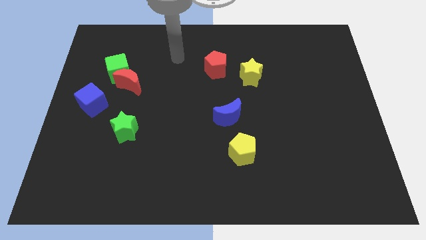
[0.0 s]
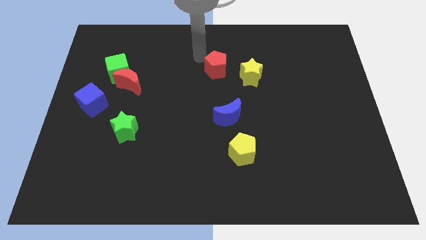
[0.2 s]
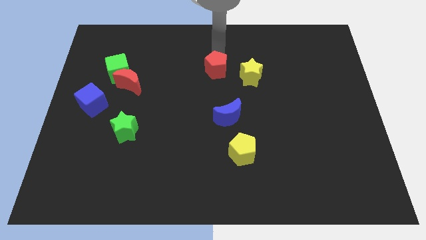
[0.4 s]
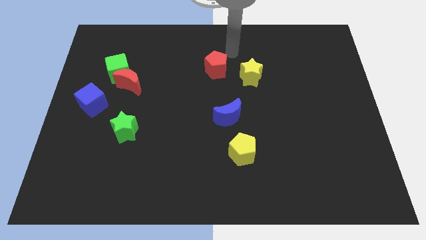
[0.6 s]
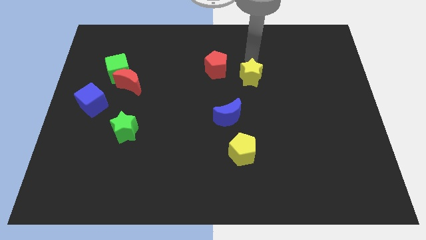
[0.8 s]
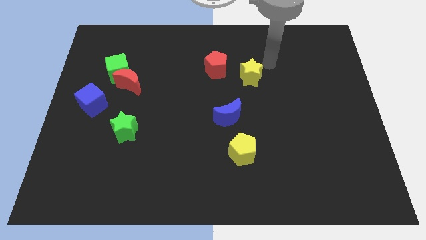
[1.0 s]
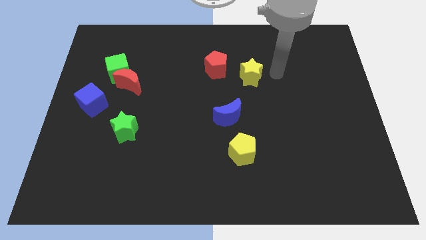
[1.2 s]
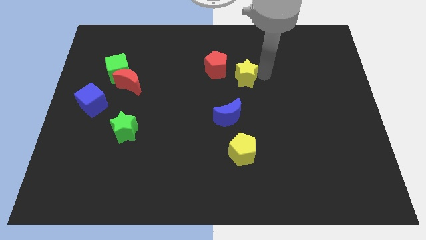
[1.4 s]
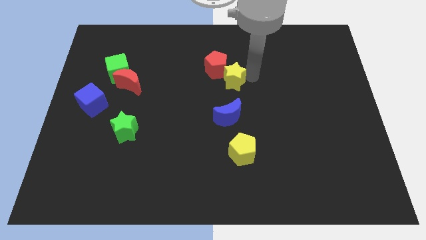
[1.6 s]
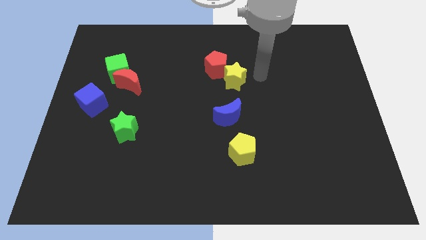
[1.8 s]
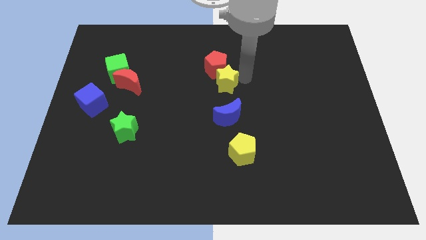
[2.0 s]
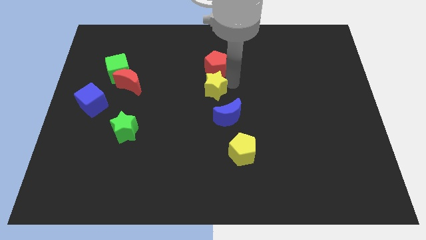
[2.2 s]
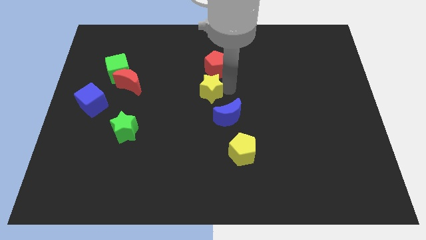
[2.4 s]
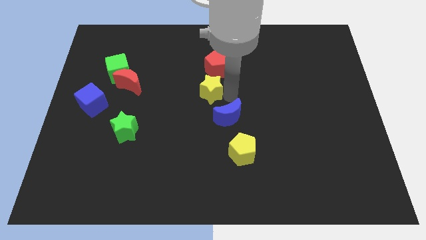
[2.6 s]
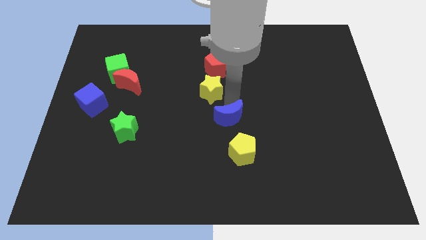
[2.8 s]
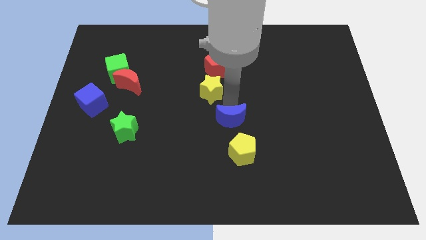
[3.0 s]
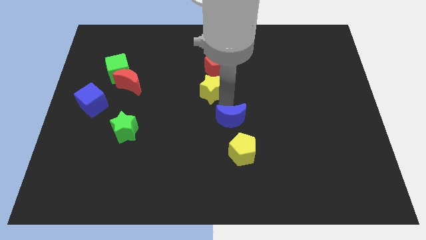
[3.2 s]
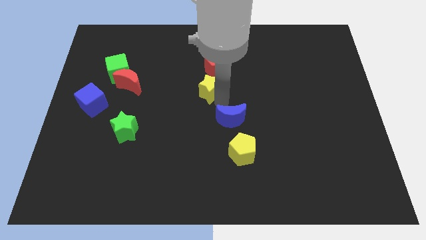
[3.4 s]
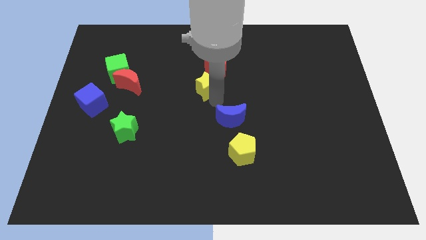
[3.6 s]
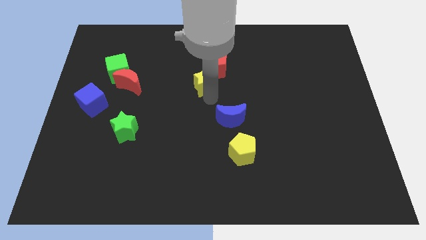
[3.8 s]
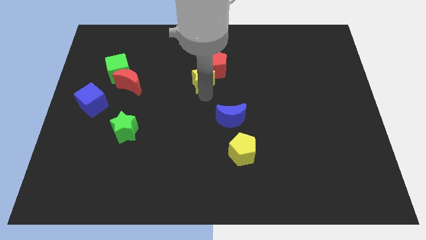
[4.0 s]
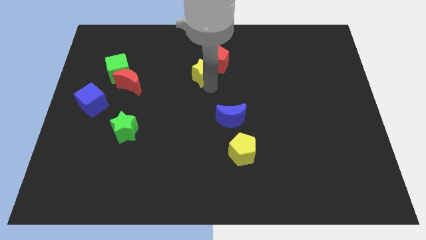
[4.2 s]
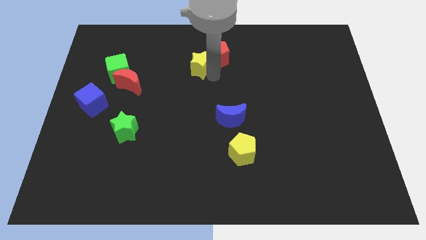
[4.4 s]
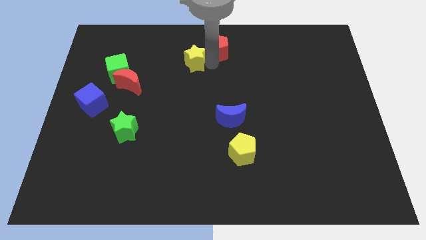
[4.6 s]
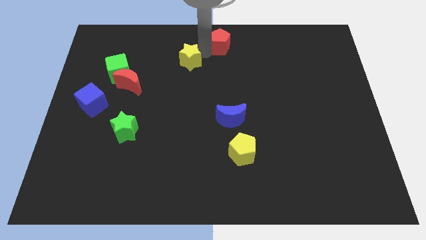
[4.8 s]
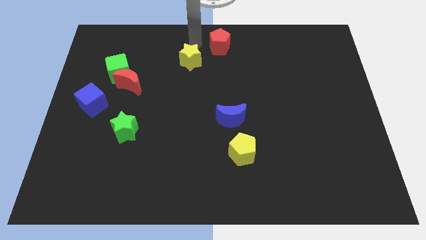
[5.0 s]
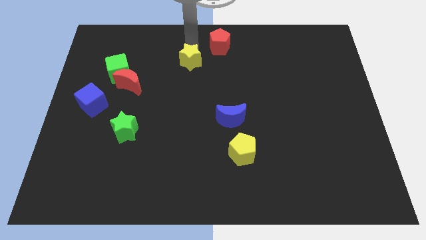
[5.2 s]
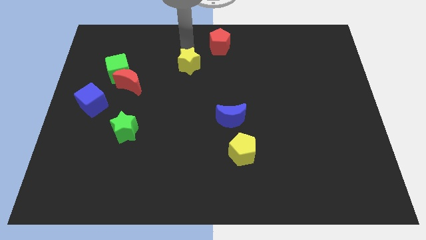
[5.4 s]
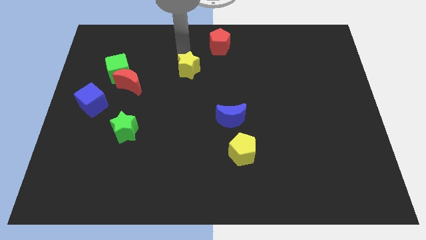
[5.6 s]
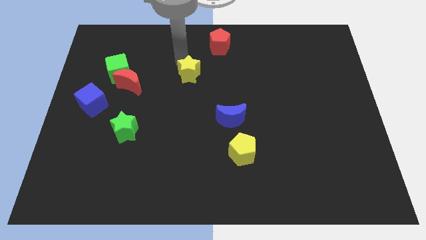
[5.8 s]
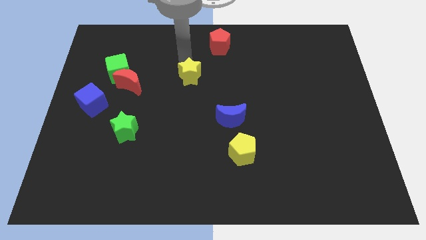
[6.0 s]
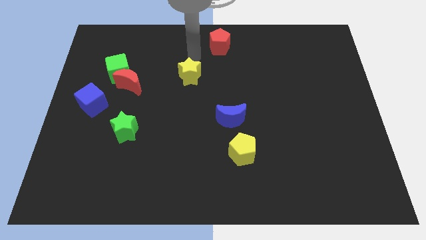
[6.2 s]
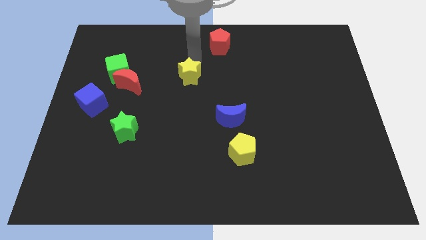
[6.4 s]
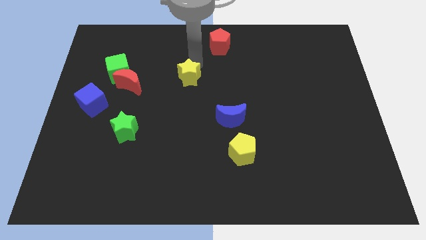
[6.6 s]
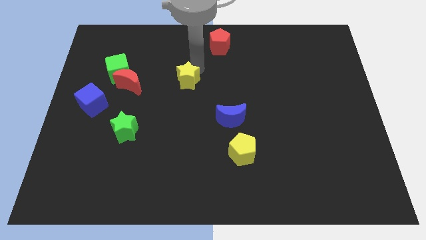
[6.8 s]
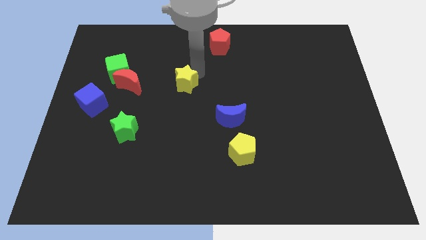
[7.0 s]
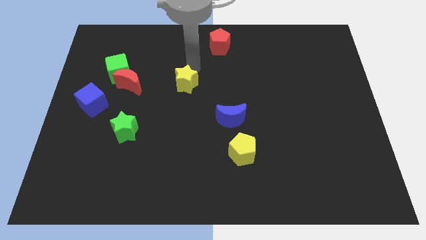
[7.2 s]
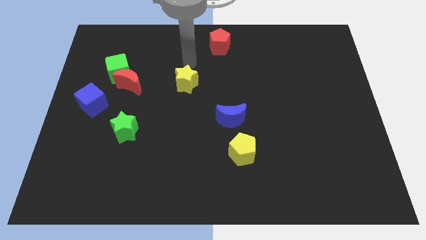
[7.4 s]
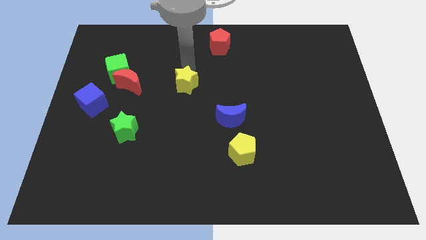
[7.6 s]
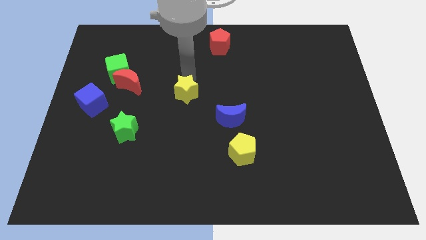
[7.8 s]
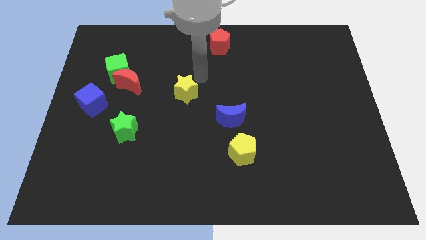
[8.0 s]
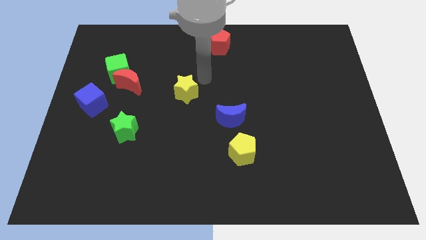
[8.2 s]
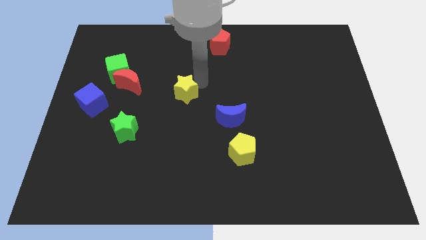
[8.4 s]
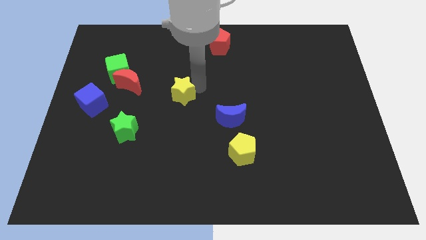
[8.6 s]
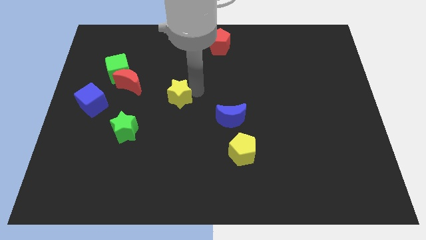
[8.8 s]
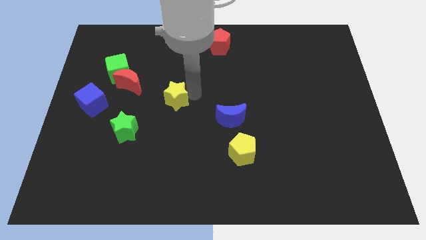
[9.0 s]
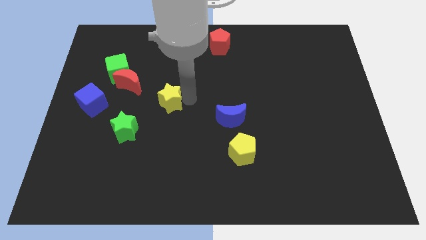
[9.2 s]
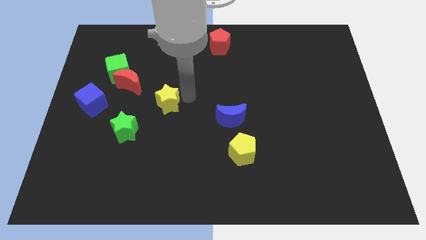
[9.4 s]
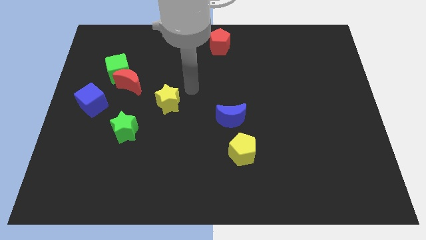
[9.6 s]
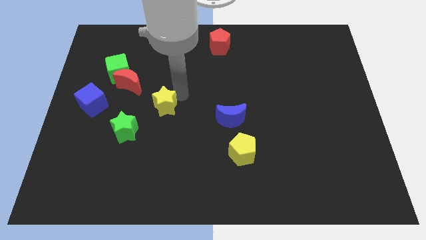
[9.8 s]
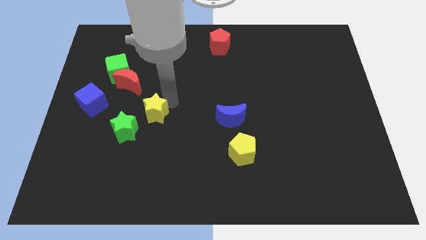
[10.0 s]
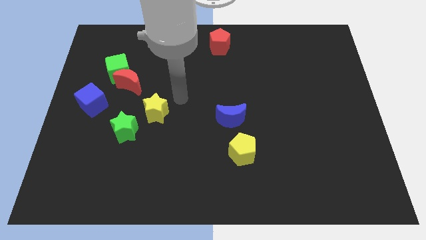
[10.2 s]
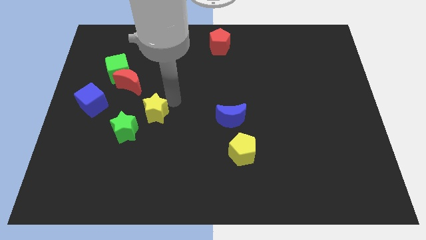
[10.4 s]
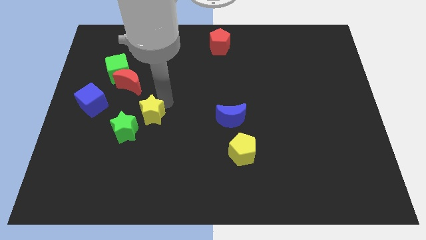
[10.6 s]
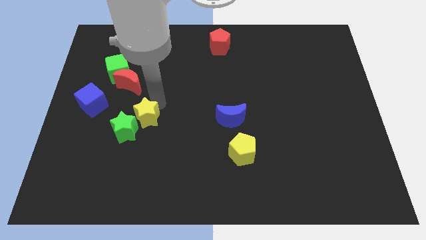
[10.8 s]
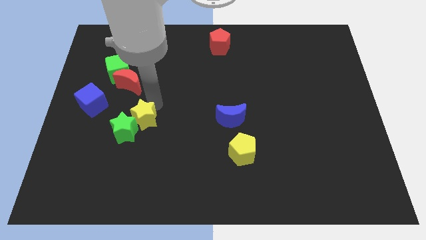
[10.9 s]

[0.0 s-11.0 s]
push the yellow star to the green star

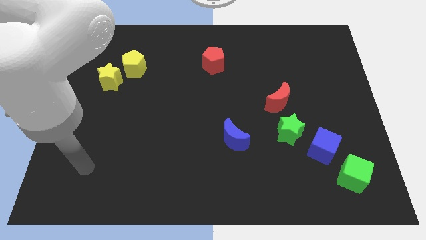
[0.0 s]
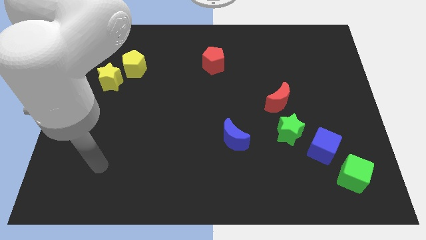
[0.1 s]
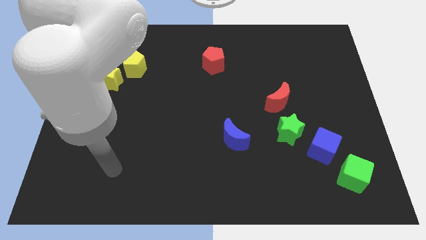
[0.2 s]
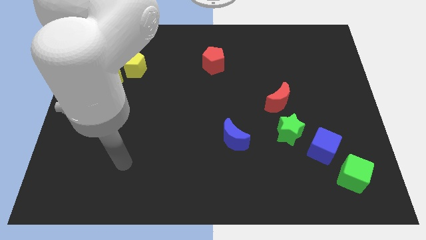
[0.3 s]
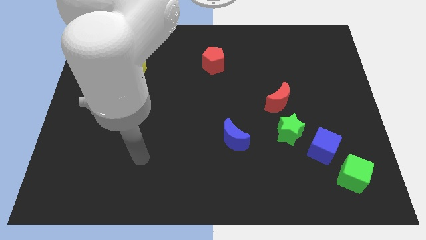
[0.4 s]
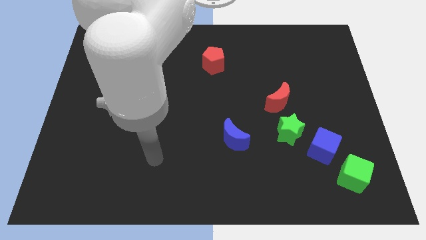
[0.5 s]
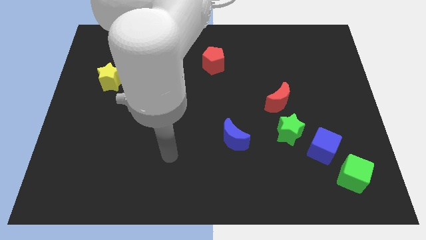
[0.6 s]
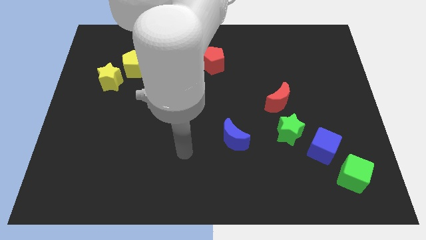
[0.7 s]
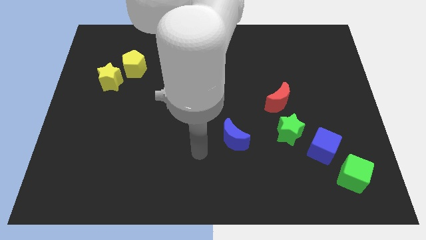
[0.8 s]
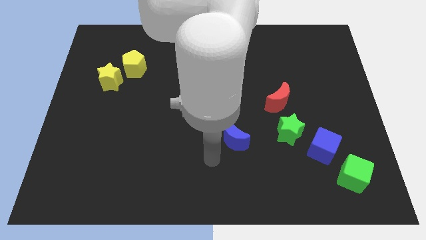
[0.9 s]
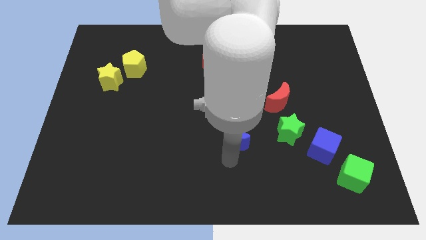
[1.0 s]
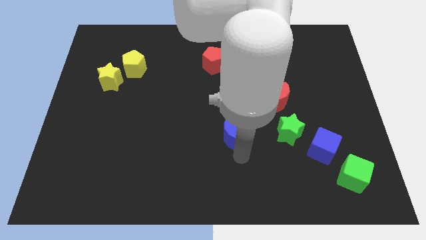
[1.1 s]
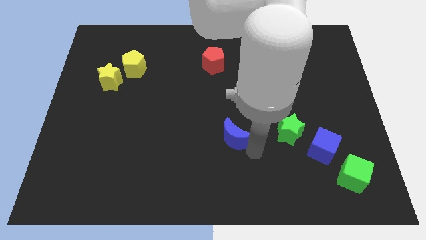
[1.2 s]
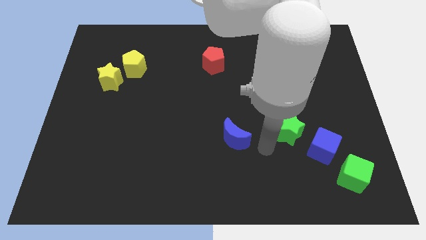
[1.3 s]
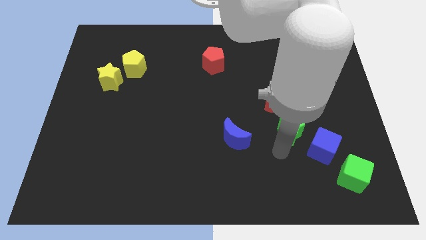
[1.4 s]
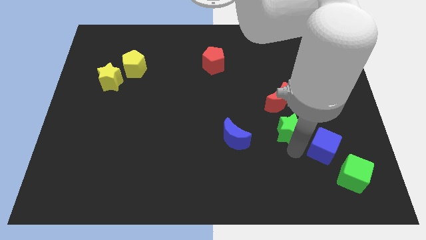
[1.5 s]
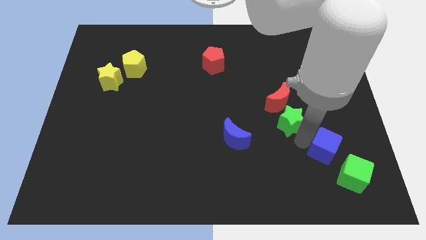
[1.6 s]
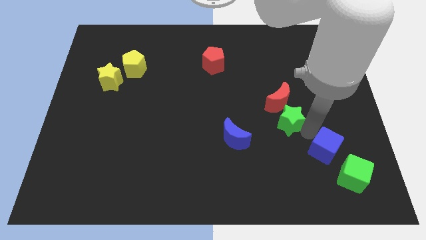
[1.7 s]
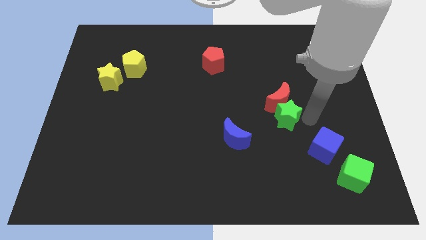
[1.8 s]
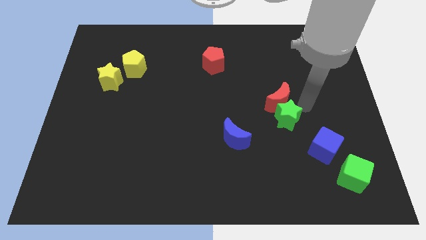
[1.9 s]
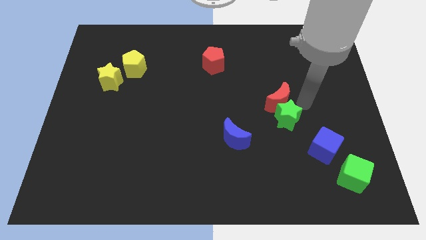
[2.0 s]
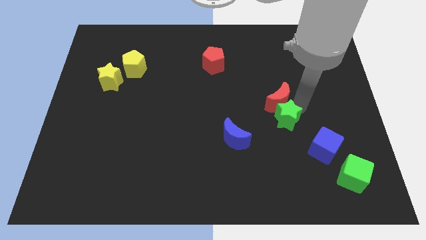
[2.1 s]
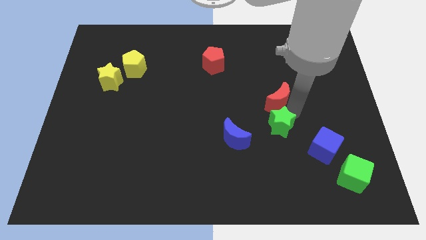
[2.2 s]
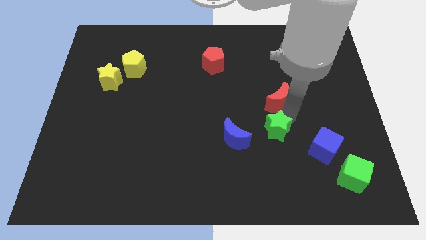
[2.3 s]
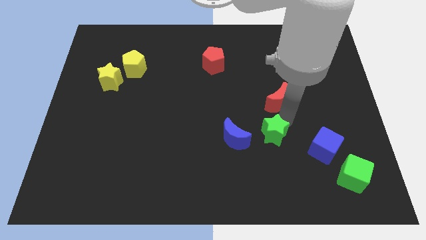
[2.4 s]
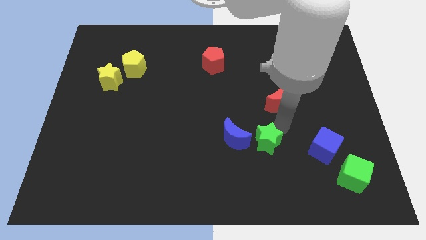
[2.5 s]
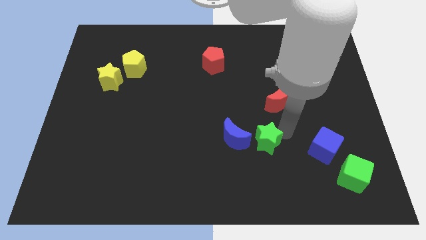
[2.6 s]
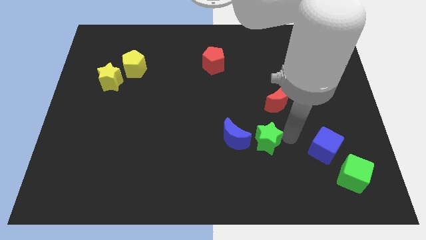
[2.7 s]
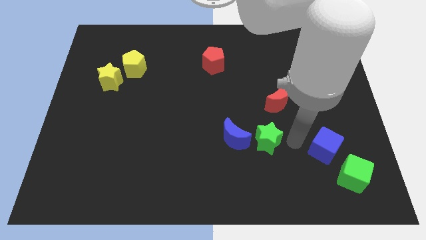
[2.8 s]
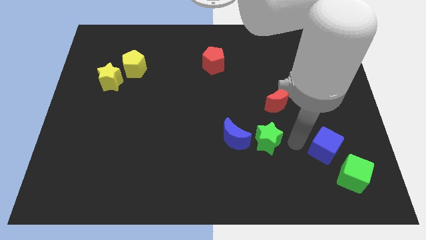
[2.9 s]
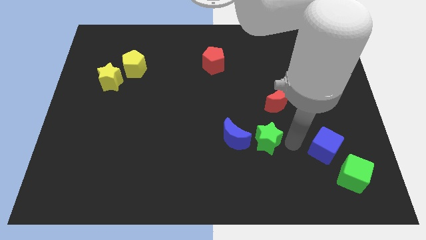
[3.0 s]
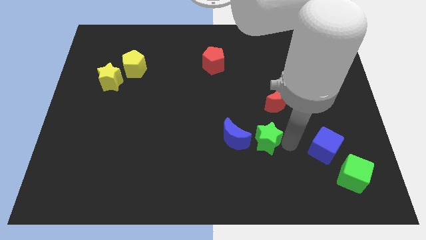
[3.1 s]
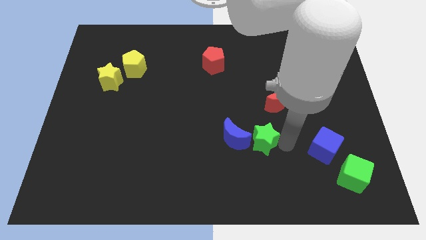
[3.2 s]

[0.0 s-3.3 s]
push the green star towards the blue moon
